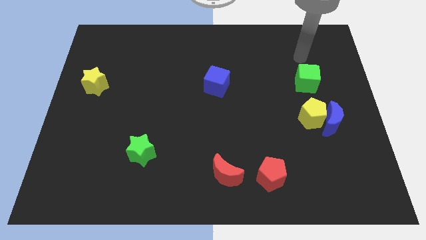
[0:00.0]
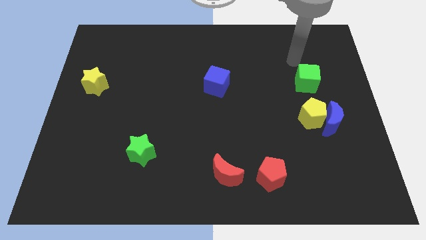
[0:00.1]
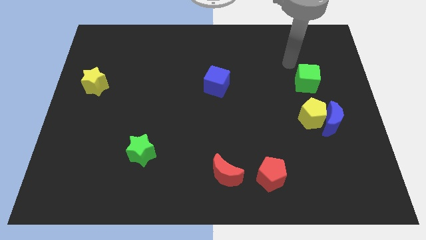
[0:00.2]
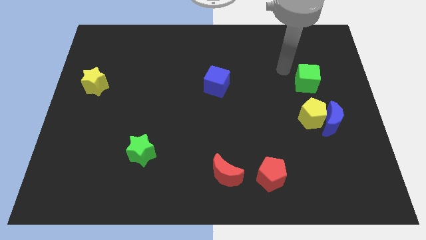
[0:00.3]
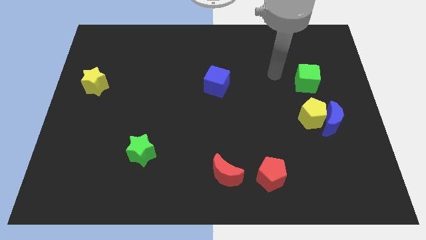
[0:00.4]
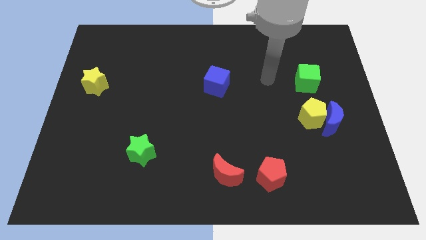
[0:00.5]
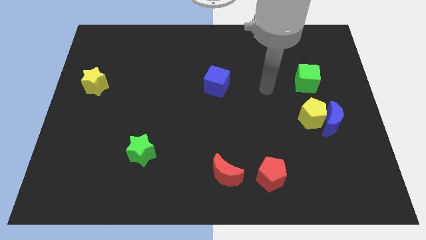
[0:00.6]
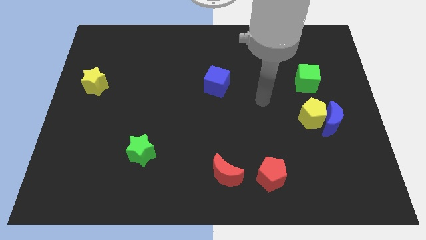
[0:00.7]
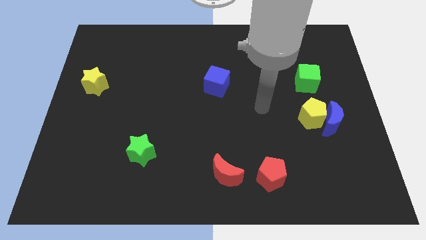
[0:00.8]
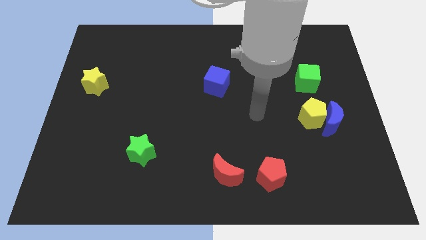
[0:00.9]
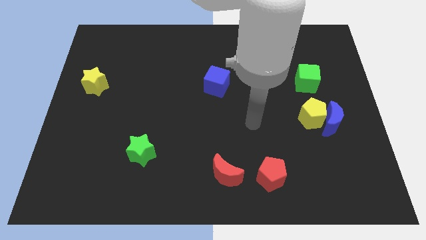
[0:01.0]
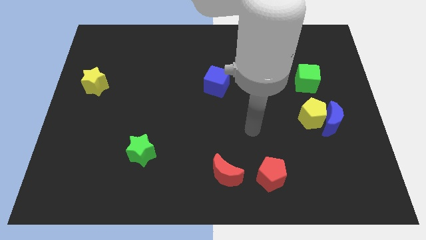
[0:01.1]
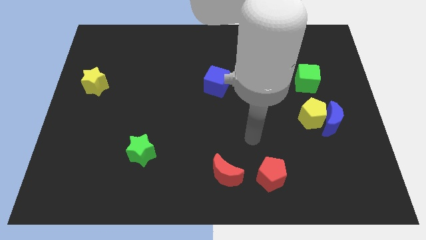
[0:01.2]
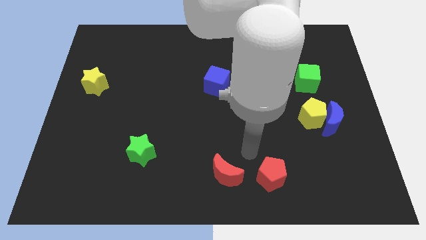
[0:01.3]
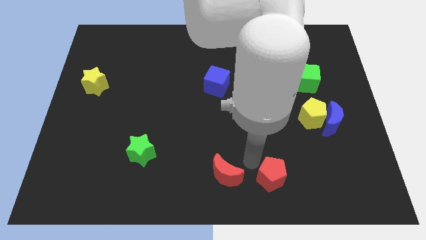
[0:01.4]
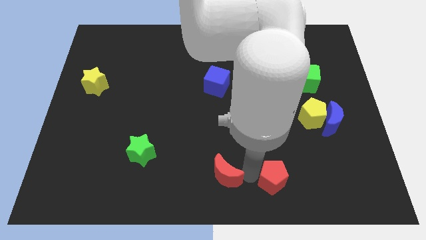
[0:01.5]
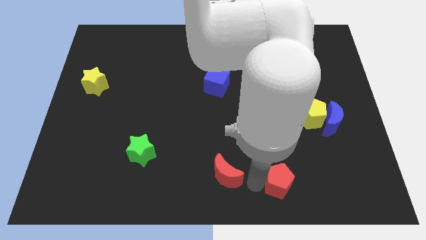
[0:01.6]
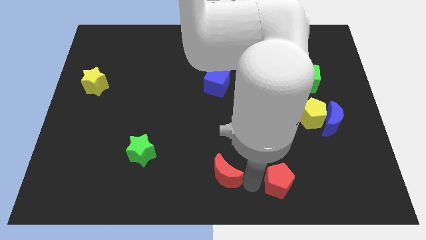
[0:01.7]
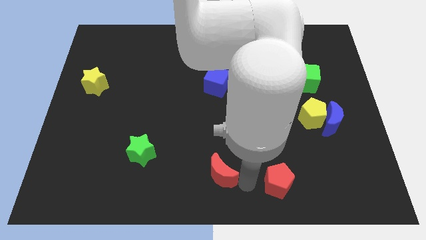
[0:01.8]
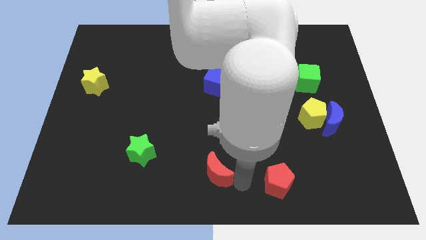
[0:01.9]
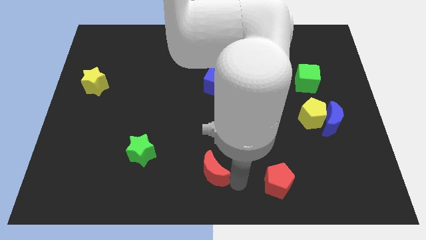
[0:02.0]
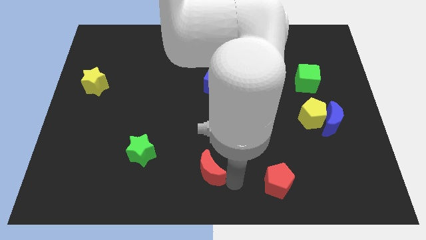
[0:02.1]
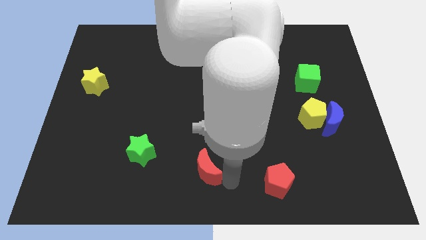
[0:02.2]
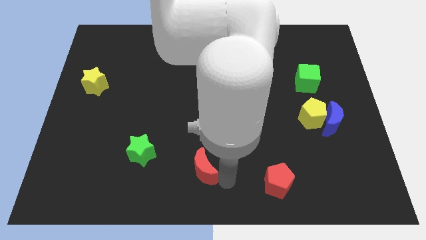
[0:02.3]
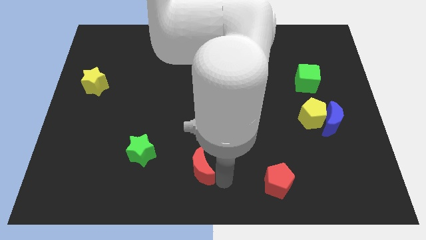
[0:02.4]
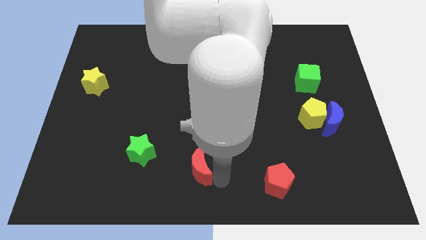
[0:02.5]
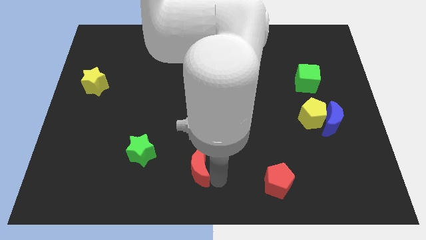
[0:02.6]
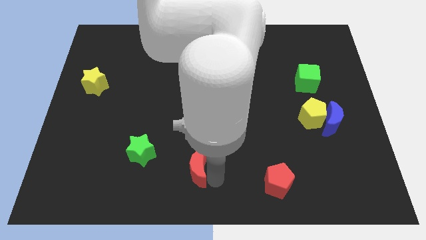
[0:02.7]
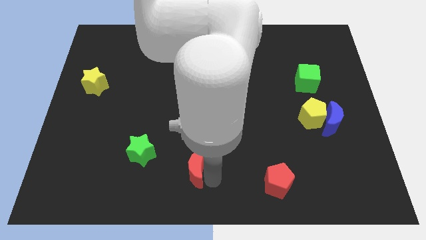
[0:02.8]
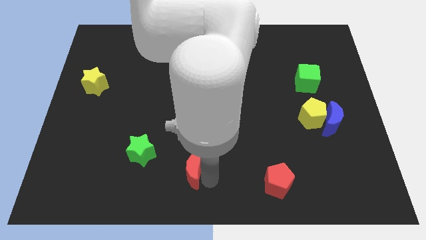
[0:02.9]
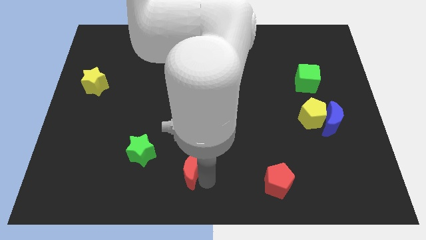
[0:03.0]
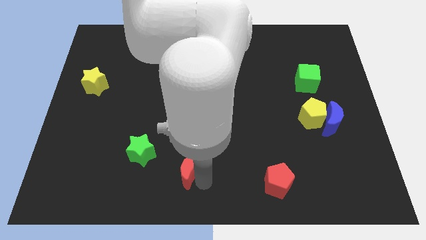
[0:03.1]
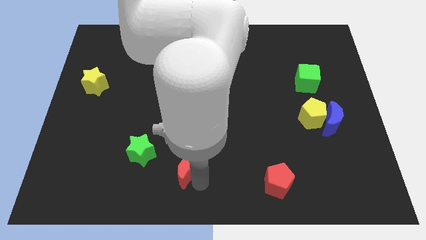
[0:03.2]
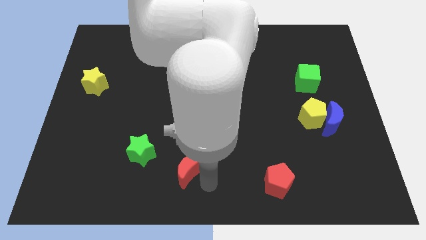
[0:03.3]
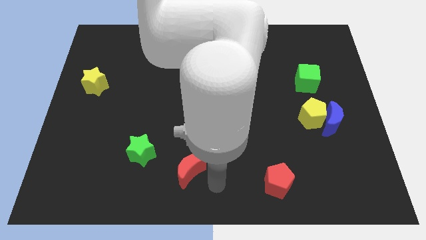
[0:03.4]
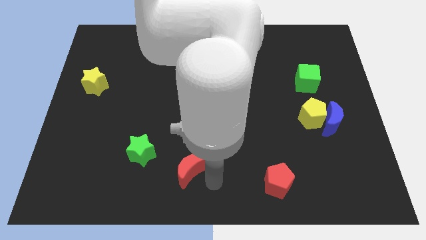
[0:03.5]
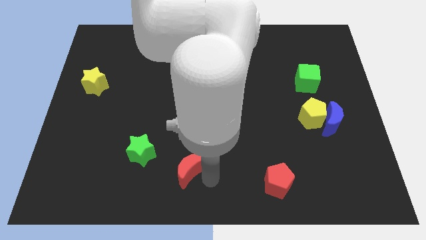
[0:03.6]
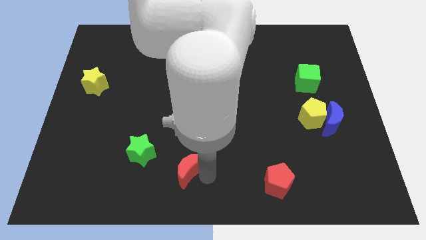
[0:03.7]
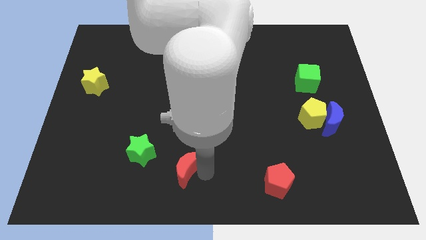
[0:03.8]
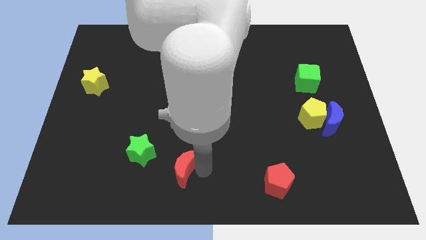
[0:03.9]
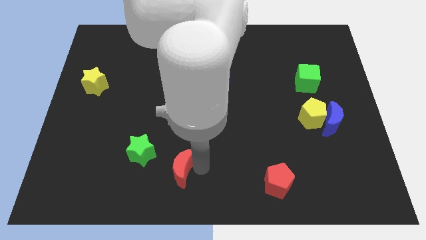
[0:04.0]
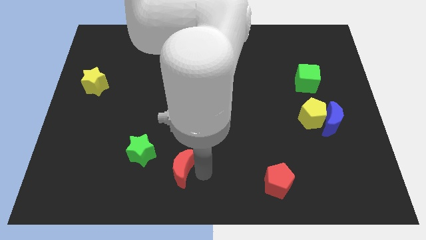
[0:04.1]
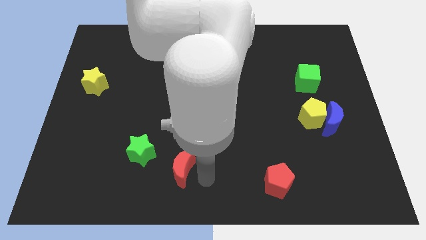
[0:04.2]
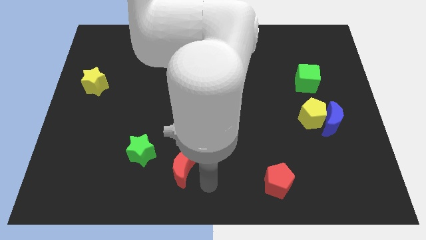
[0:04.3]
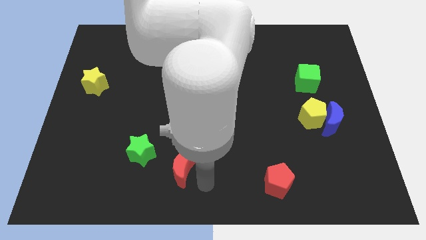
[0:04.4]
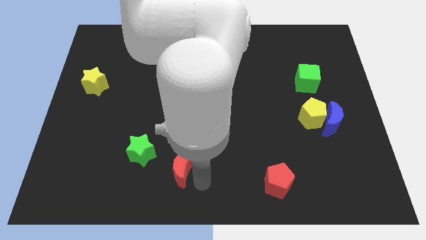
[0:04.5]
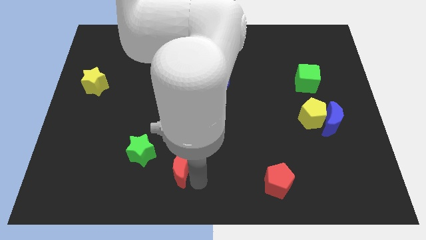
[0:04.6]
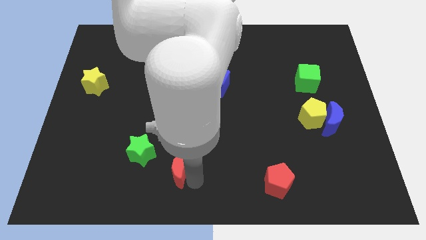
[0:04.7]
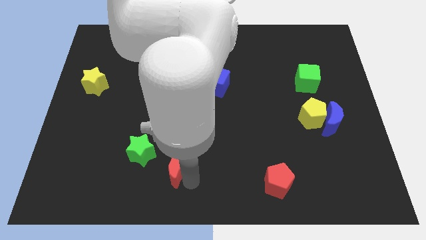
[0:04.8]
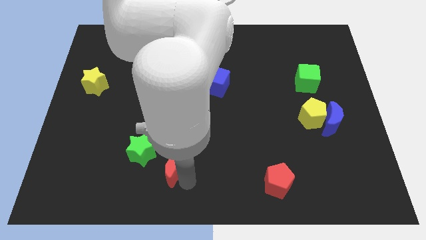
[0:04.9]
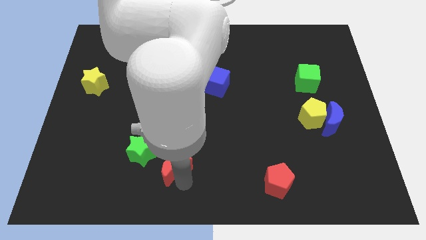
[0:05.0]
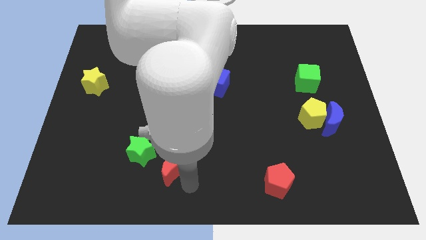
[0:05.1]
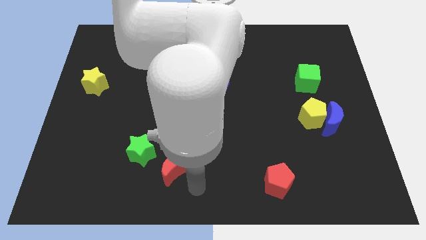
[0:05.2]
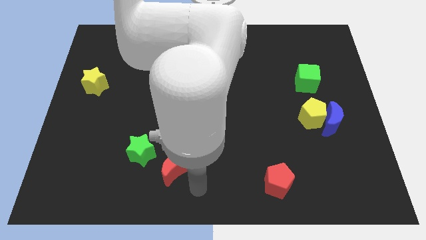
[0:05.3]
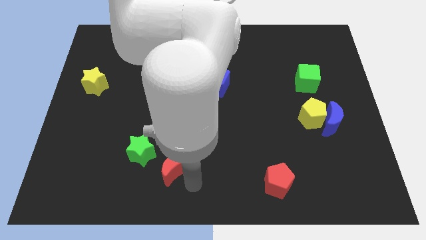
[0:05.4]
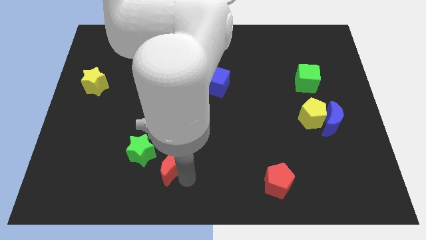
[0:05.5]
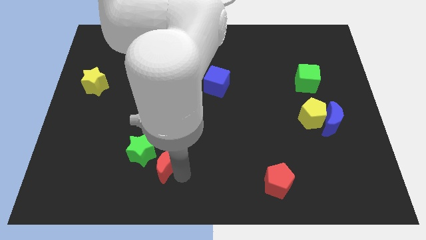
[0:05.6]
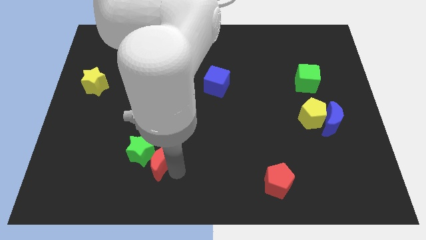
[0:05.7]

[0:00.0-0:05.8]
put the red moon close to the green star

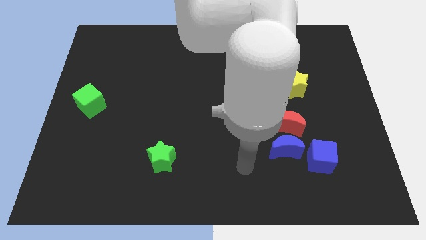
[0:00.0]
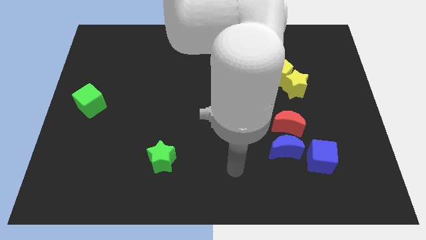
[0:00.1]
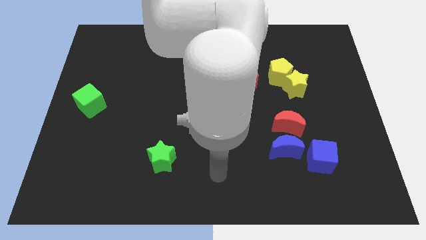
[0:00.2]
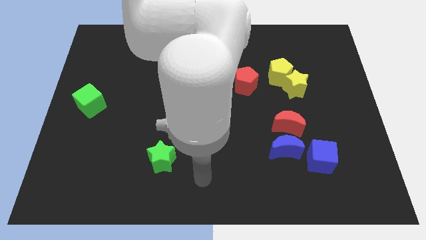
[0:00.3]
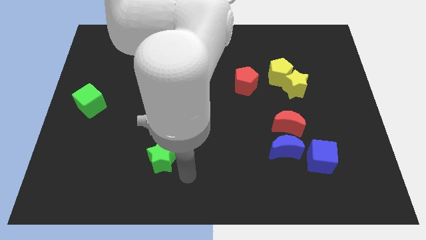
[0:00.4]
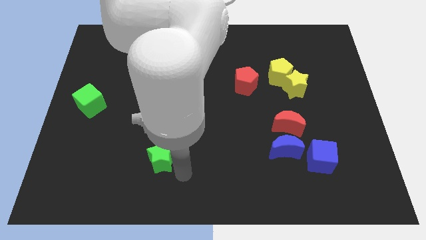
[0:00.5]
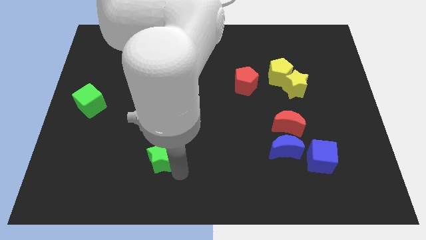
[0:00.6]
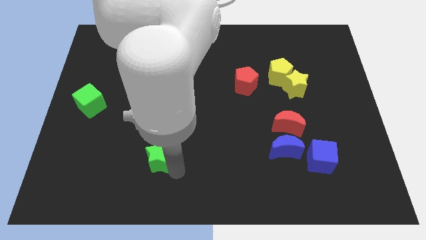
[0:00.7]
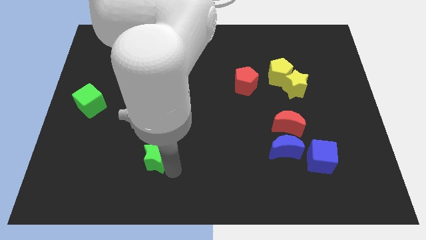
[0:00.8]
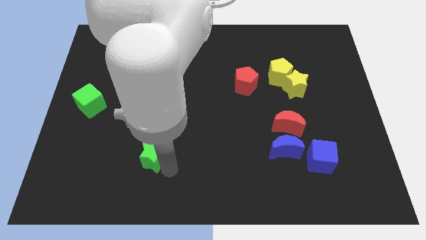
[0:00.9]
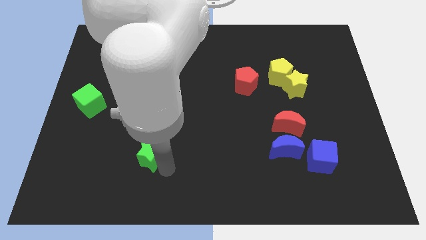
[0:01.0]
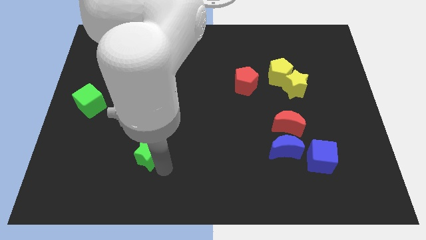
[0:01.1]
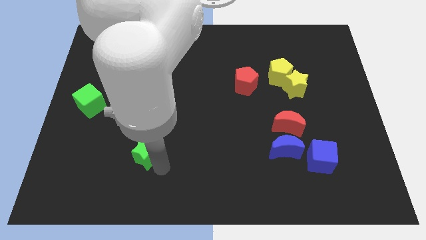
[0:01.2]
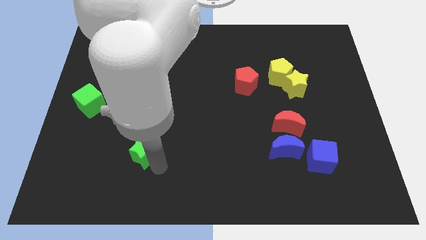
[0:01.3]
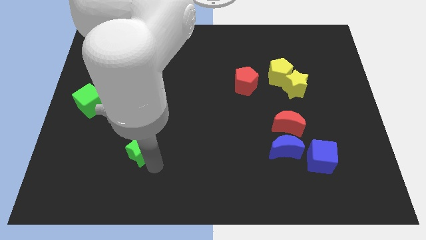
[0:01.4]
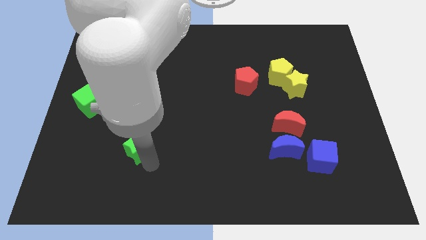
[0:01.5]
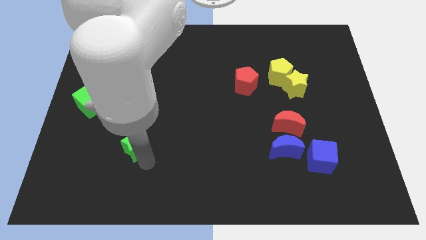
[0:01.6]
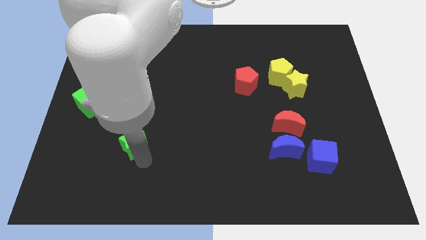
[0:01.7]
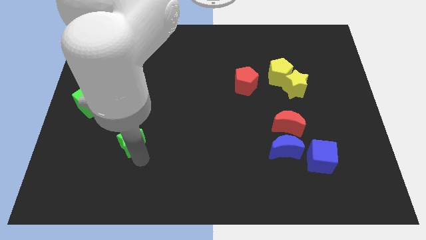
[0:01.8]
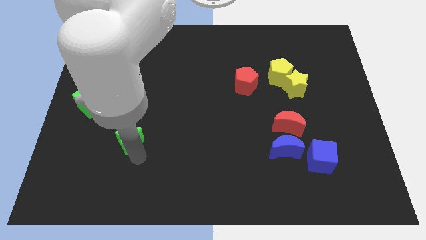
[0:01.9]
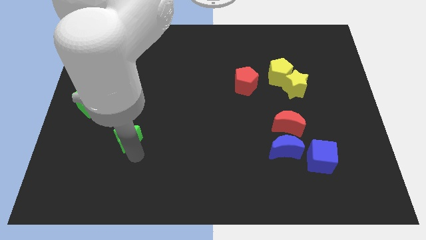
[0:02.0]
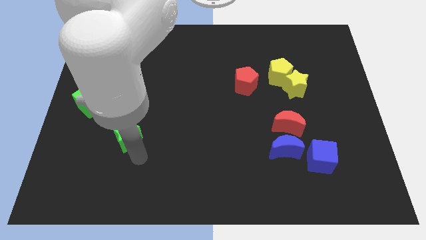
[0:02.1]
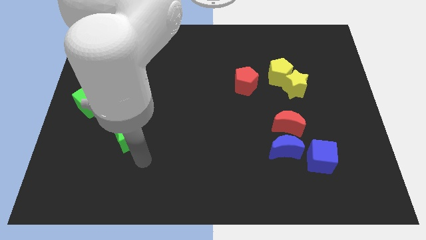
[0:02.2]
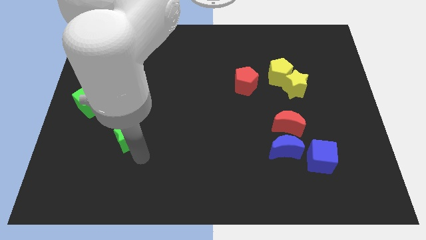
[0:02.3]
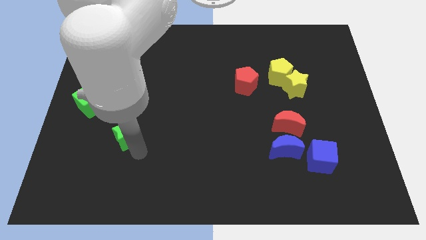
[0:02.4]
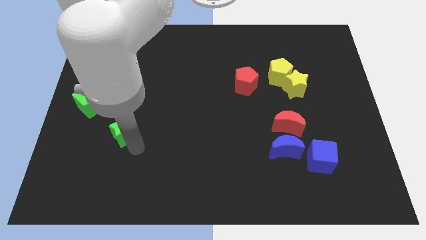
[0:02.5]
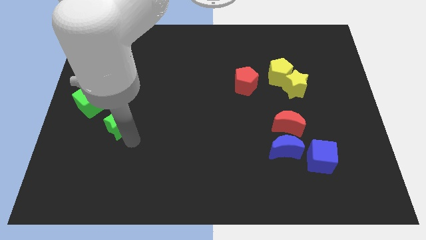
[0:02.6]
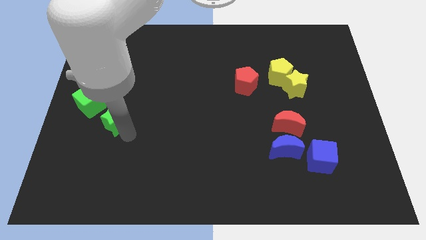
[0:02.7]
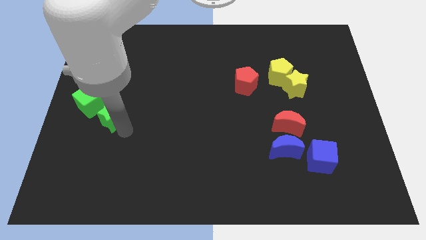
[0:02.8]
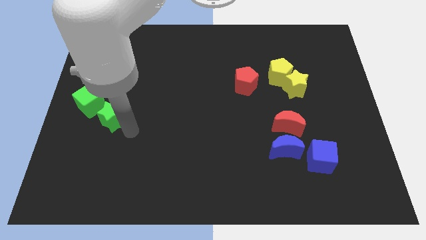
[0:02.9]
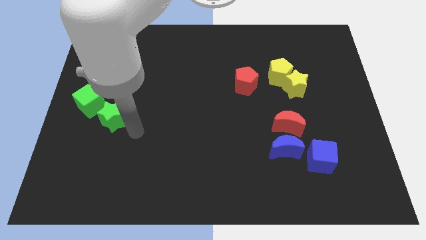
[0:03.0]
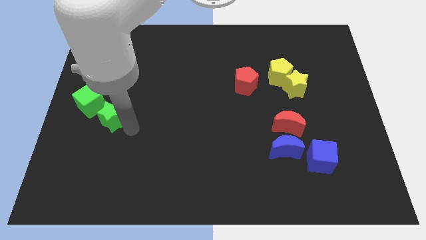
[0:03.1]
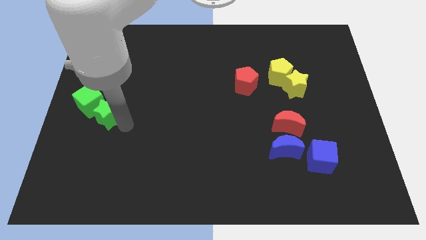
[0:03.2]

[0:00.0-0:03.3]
move the green star to the green cube
